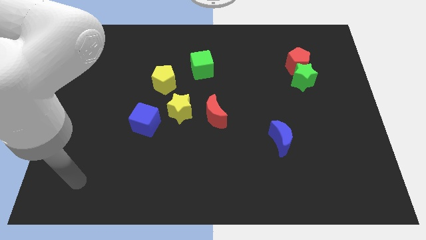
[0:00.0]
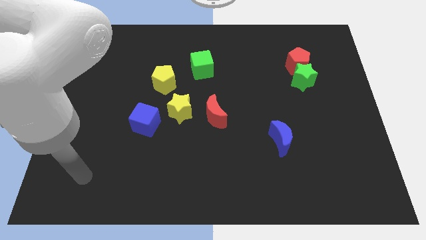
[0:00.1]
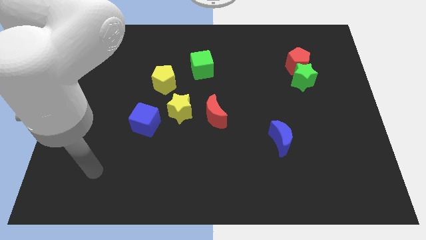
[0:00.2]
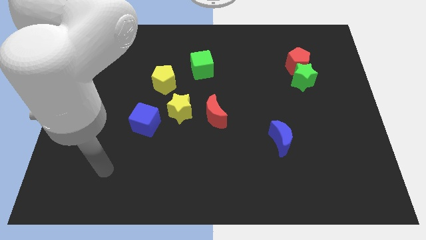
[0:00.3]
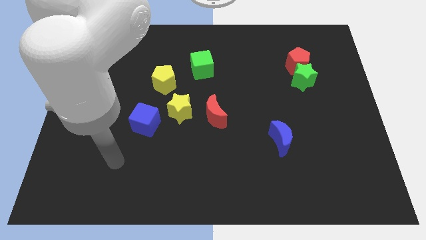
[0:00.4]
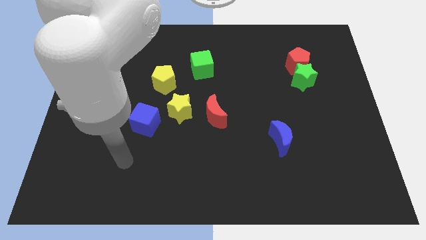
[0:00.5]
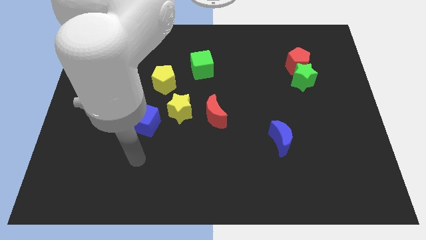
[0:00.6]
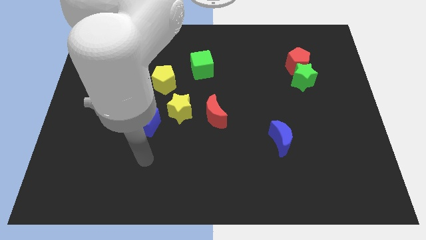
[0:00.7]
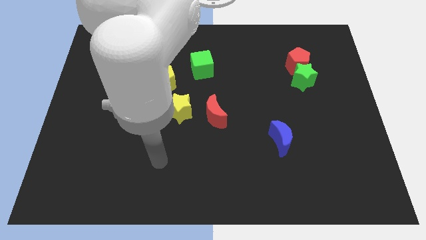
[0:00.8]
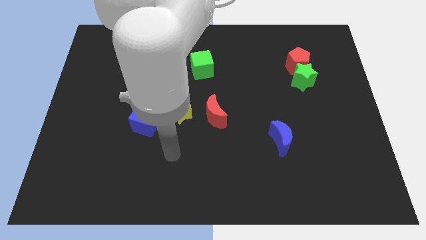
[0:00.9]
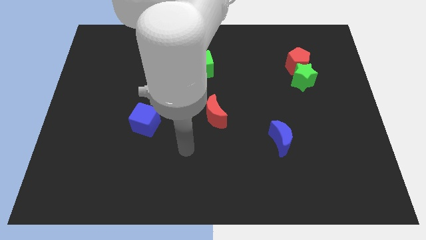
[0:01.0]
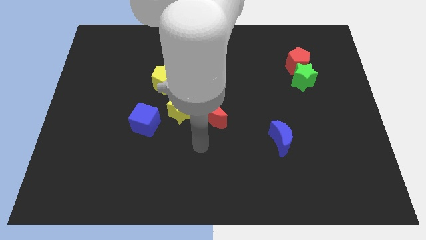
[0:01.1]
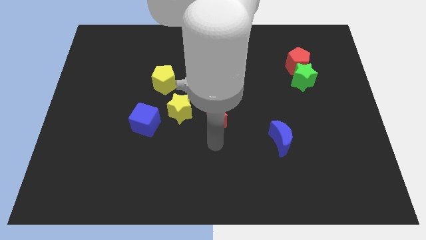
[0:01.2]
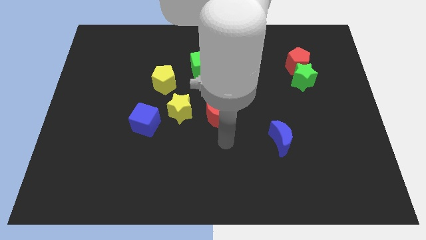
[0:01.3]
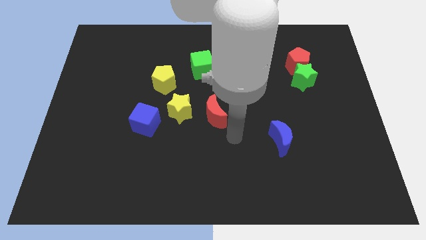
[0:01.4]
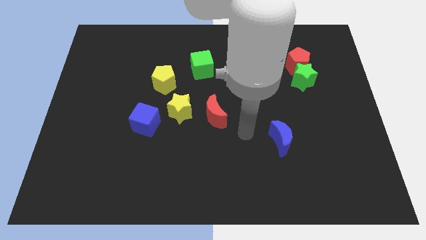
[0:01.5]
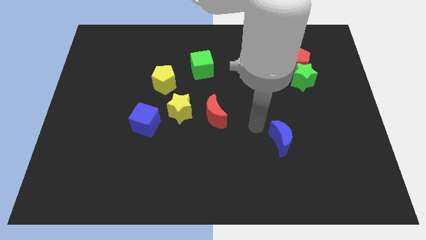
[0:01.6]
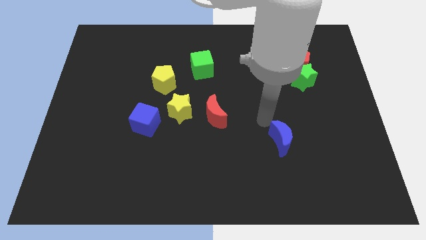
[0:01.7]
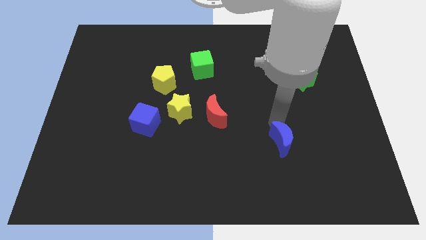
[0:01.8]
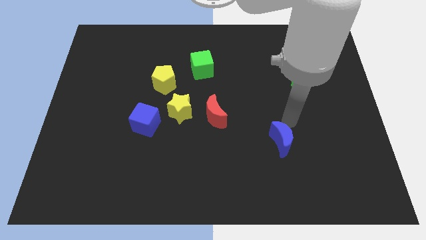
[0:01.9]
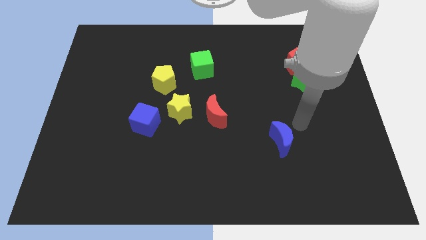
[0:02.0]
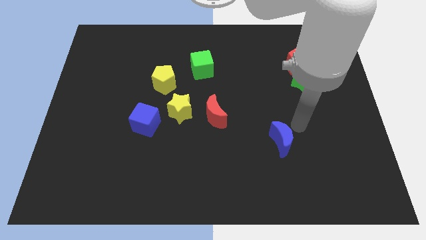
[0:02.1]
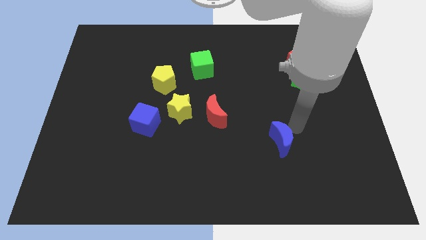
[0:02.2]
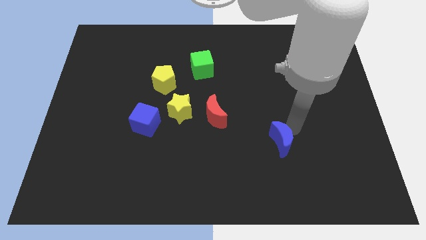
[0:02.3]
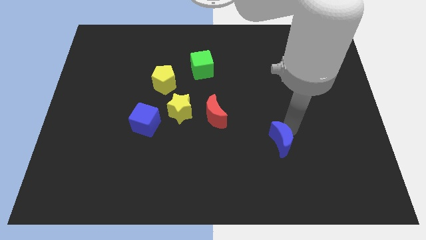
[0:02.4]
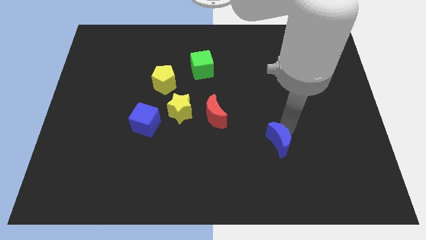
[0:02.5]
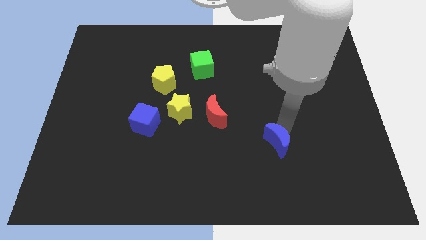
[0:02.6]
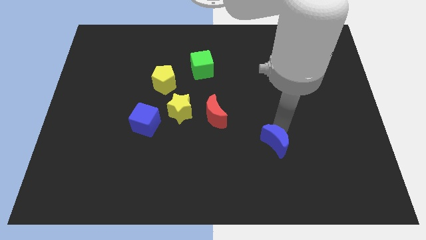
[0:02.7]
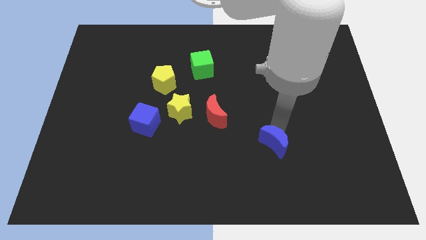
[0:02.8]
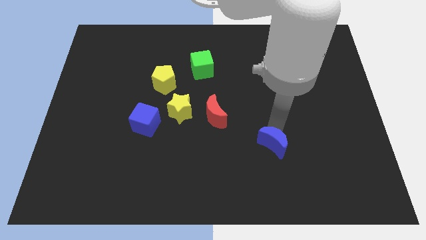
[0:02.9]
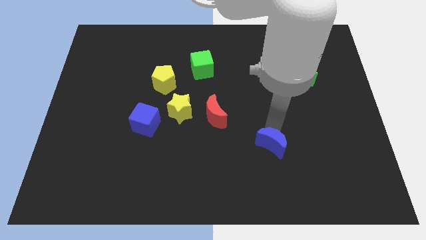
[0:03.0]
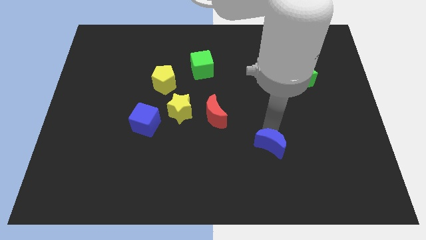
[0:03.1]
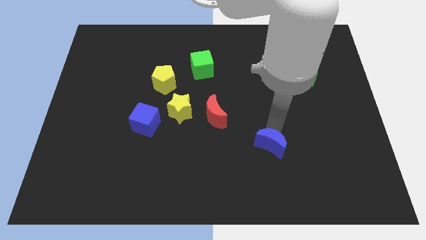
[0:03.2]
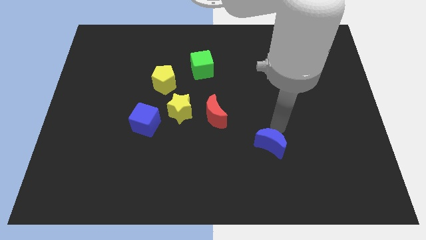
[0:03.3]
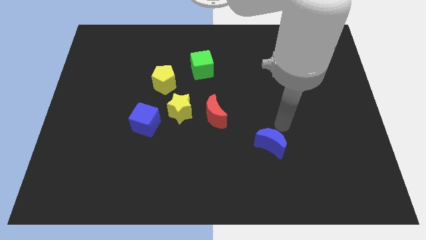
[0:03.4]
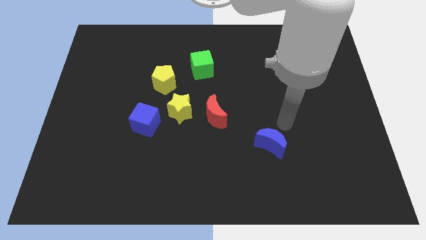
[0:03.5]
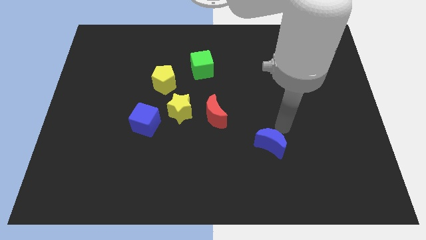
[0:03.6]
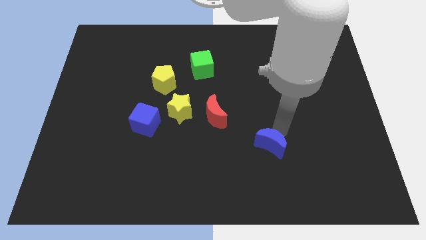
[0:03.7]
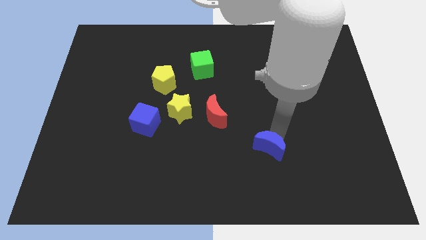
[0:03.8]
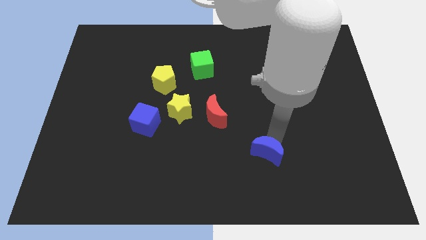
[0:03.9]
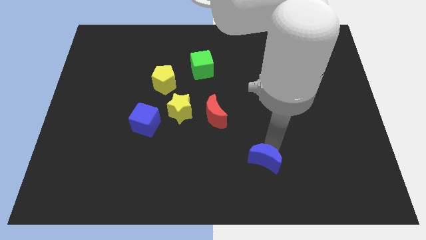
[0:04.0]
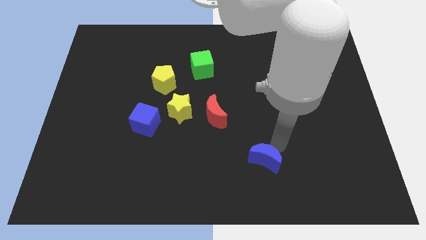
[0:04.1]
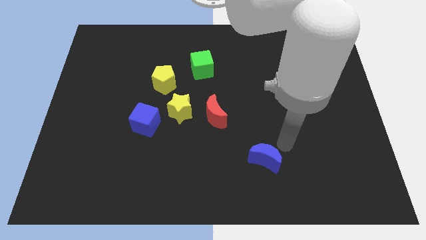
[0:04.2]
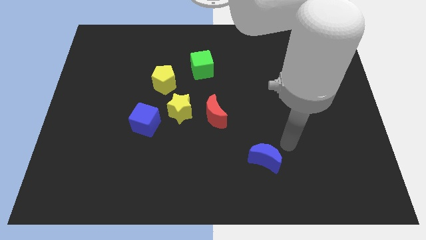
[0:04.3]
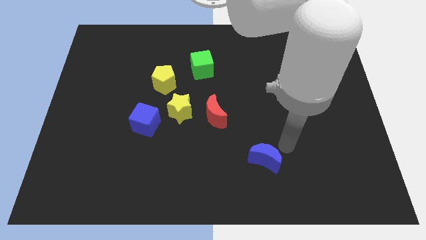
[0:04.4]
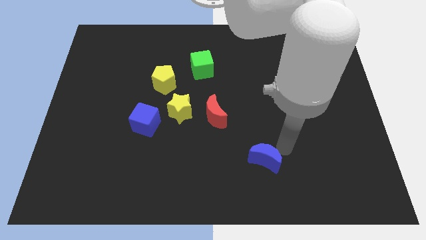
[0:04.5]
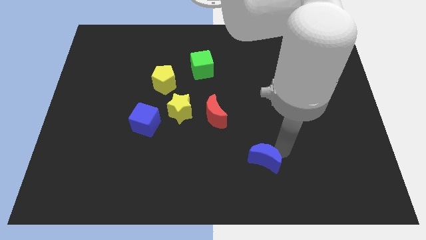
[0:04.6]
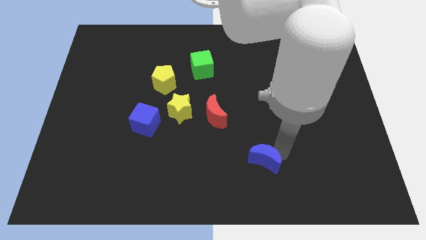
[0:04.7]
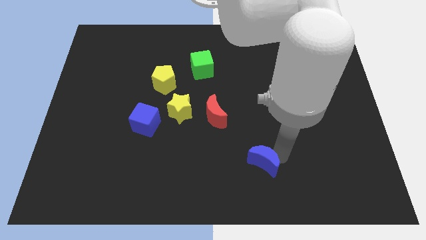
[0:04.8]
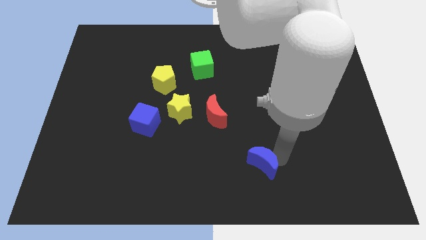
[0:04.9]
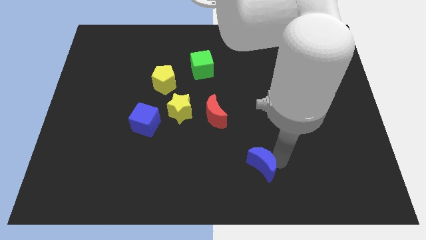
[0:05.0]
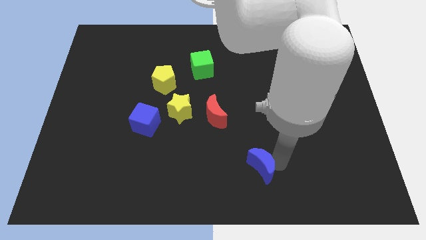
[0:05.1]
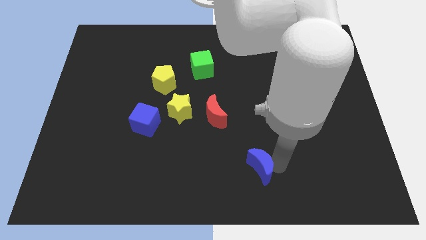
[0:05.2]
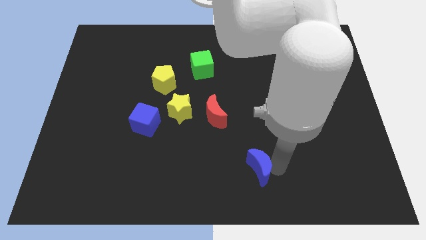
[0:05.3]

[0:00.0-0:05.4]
move the blue moon to the bottom

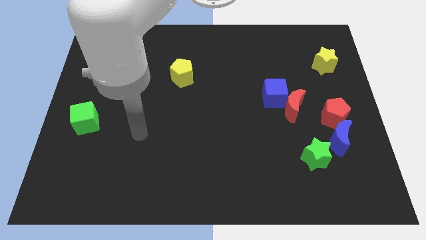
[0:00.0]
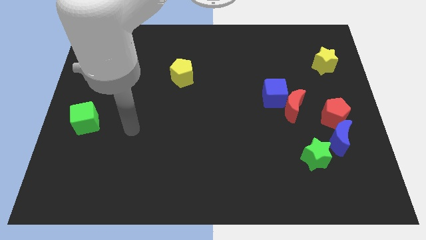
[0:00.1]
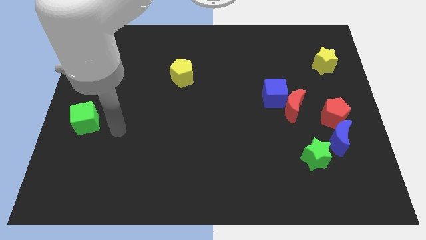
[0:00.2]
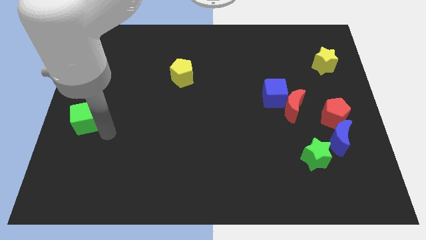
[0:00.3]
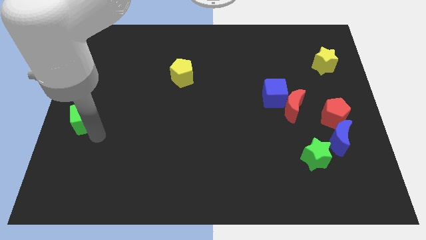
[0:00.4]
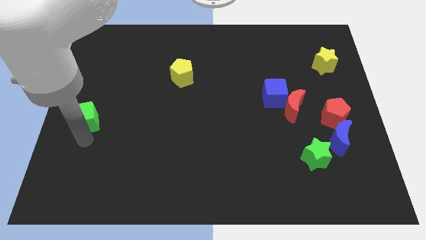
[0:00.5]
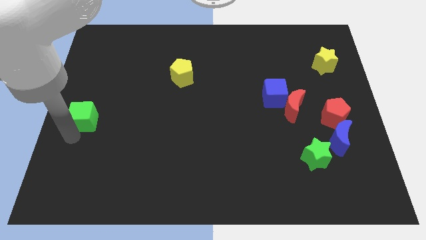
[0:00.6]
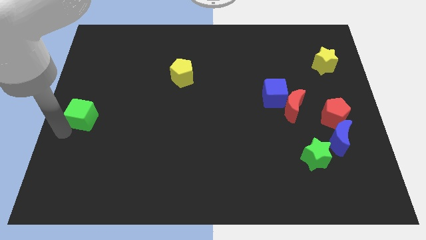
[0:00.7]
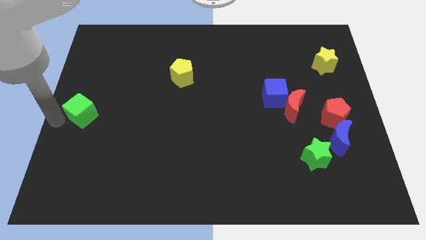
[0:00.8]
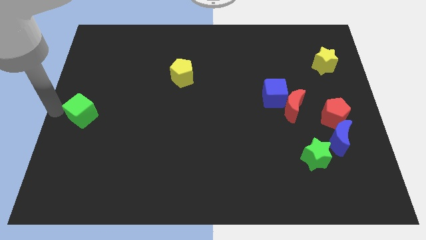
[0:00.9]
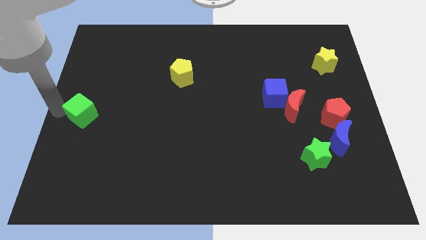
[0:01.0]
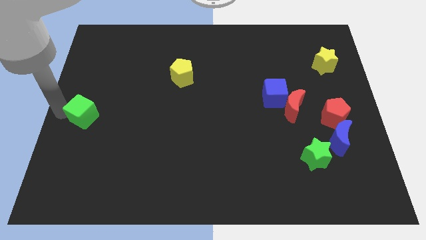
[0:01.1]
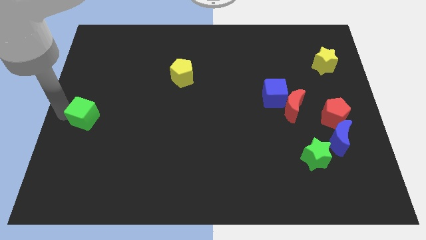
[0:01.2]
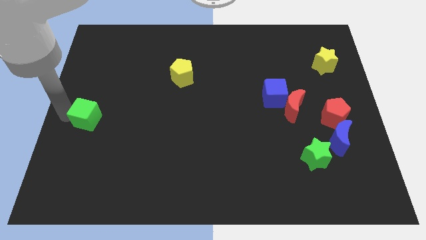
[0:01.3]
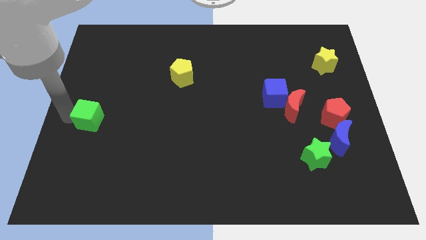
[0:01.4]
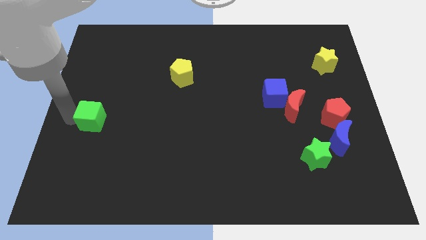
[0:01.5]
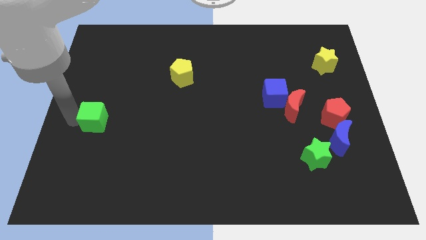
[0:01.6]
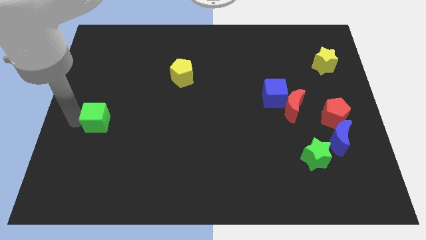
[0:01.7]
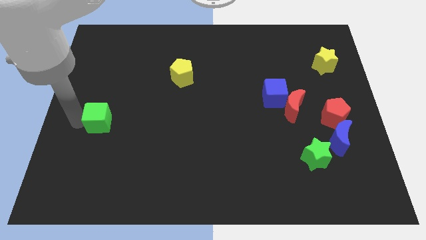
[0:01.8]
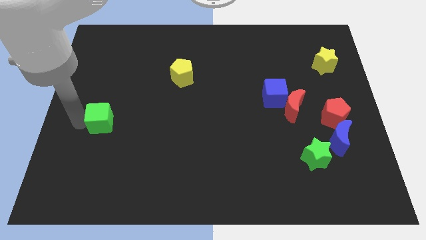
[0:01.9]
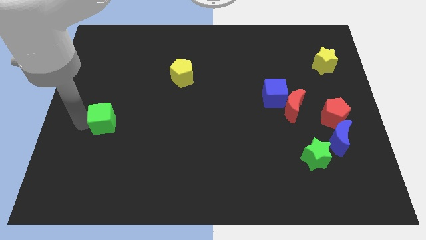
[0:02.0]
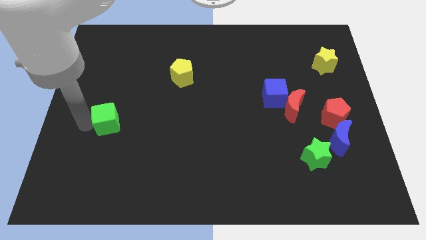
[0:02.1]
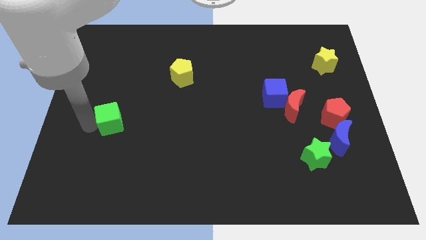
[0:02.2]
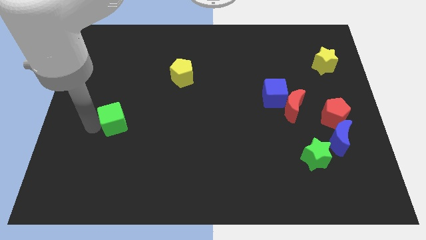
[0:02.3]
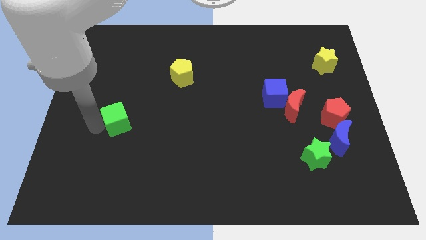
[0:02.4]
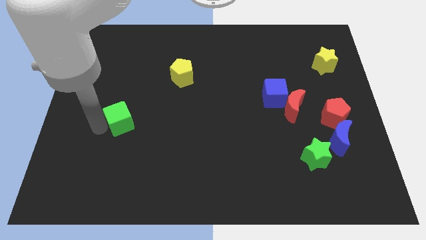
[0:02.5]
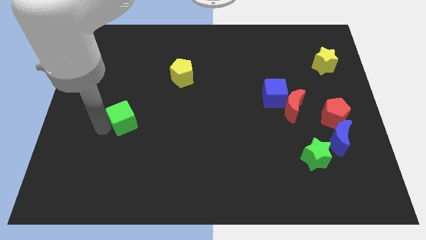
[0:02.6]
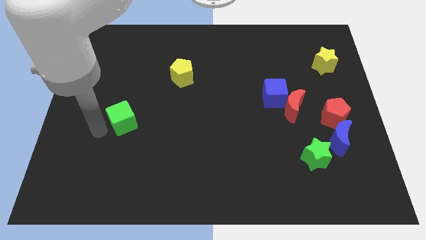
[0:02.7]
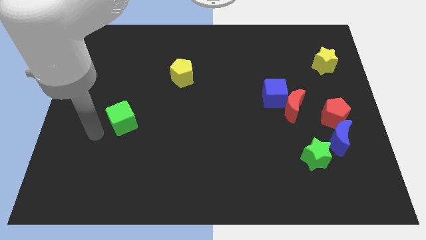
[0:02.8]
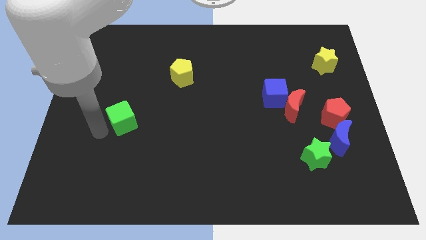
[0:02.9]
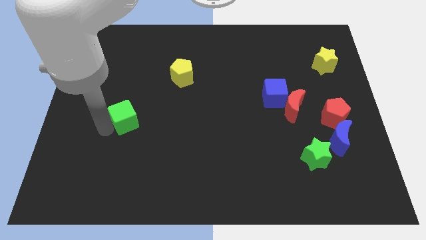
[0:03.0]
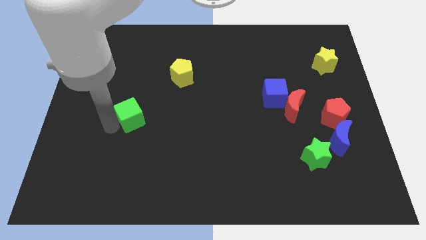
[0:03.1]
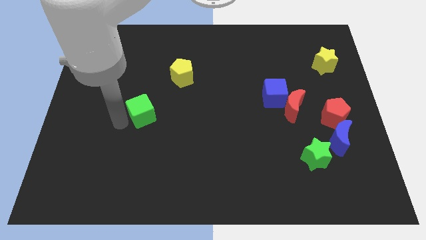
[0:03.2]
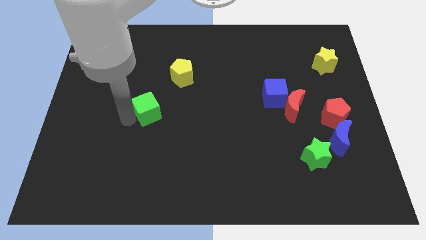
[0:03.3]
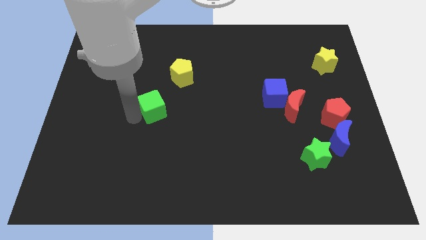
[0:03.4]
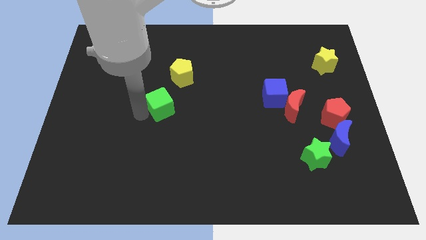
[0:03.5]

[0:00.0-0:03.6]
move the green cube to the middle of the board
